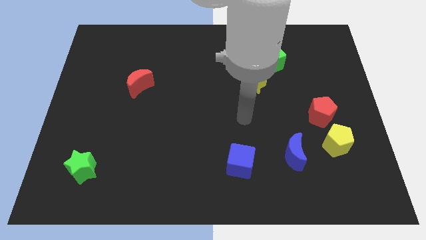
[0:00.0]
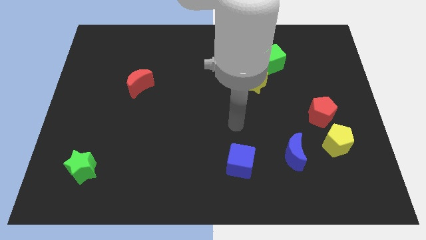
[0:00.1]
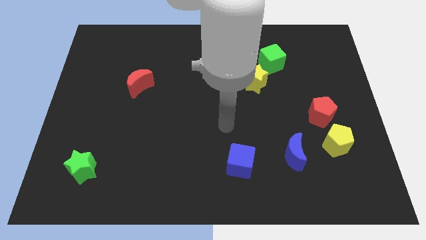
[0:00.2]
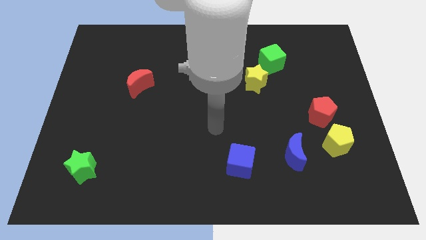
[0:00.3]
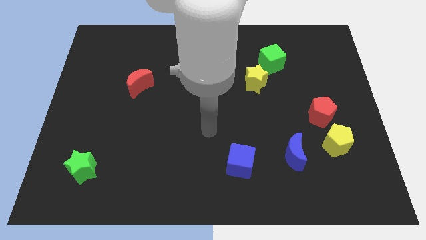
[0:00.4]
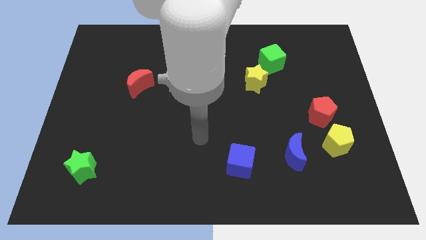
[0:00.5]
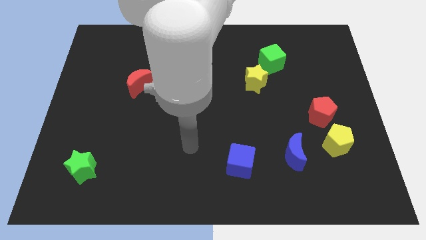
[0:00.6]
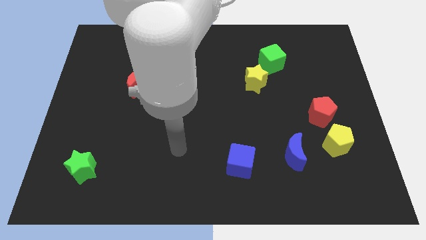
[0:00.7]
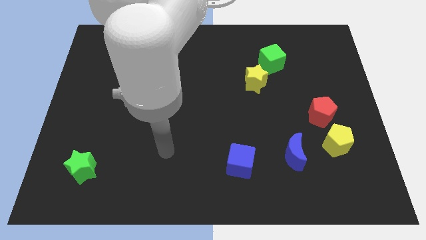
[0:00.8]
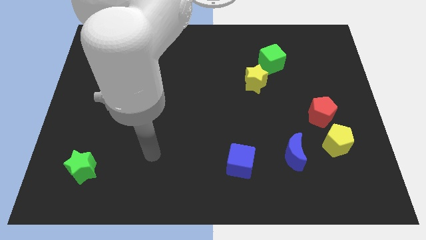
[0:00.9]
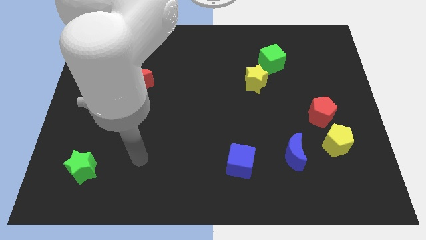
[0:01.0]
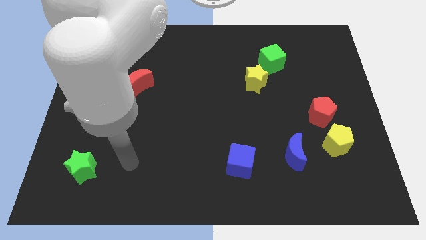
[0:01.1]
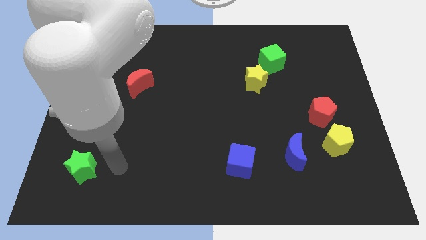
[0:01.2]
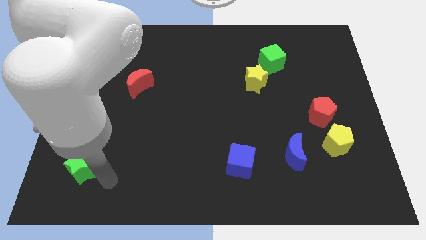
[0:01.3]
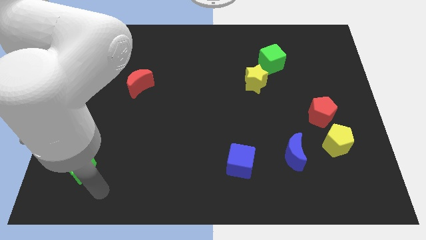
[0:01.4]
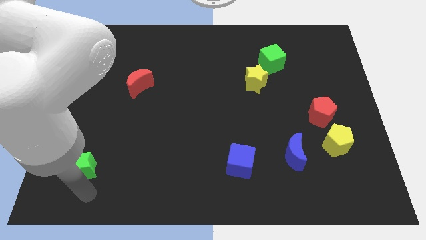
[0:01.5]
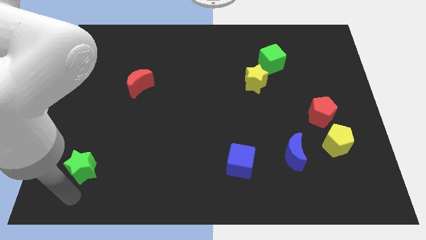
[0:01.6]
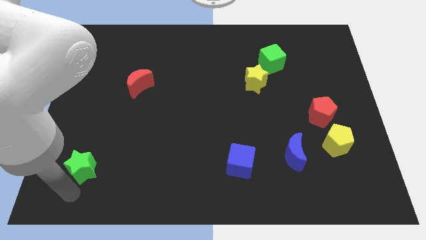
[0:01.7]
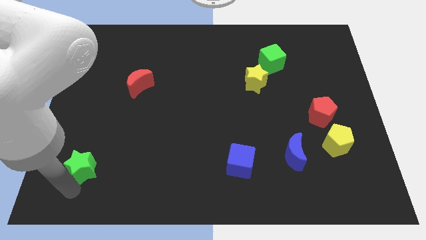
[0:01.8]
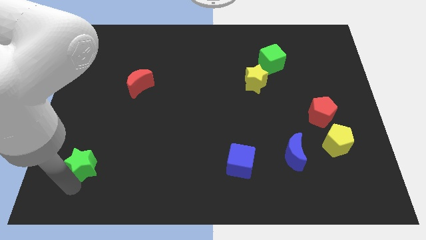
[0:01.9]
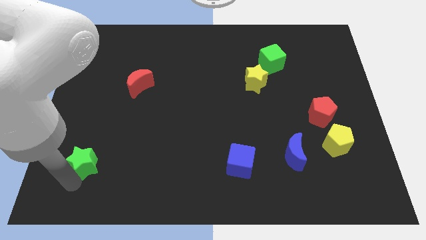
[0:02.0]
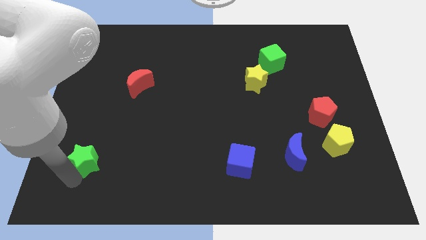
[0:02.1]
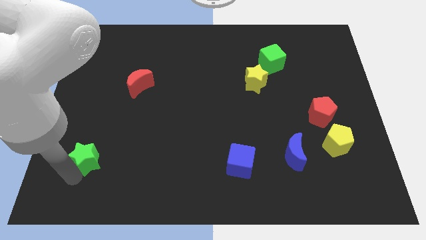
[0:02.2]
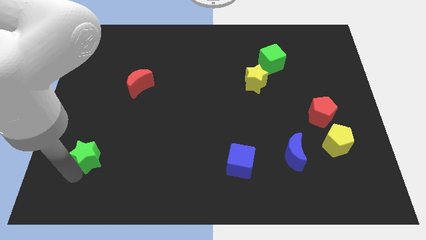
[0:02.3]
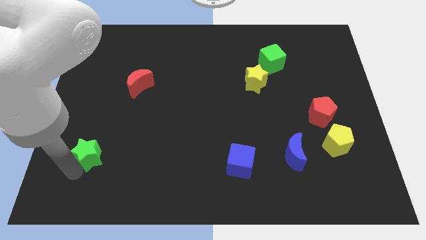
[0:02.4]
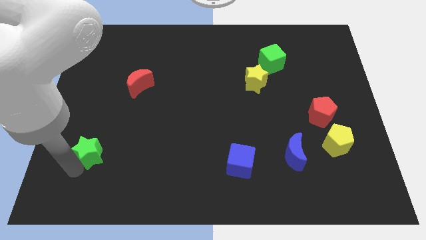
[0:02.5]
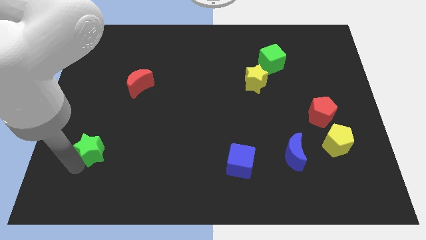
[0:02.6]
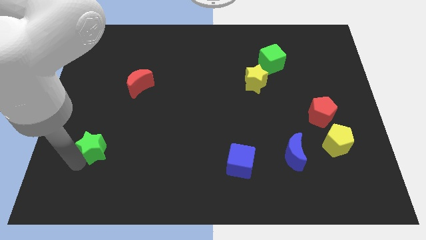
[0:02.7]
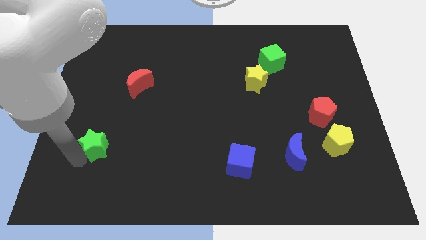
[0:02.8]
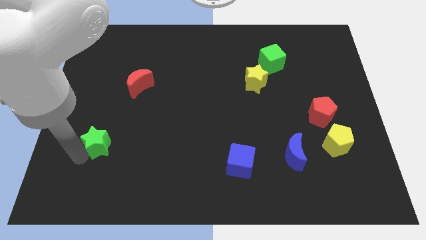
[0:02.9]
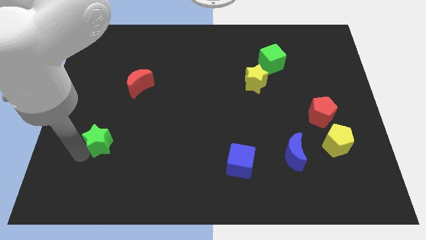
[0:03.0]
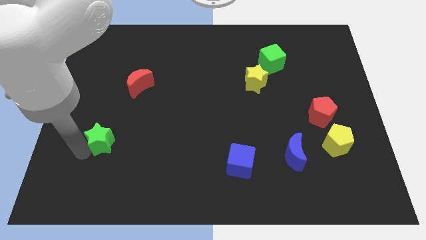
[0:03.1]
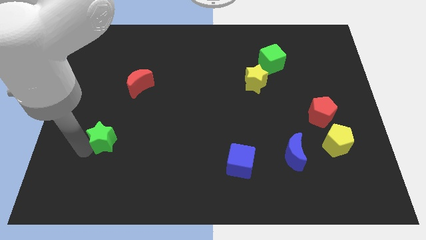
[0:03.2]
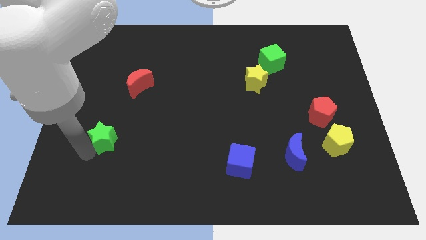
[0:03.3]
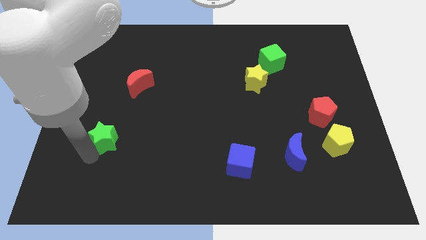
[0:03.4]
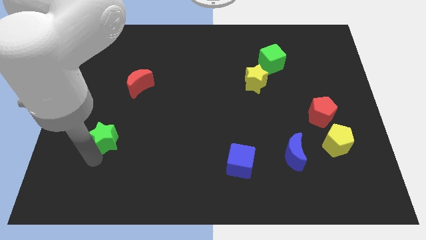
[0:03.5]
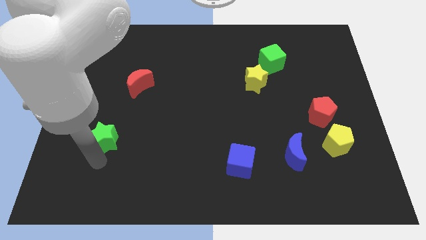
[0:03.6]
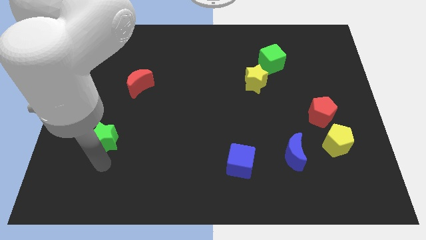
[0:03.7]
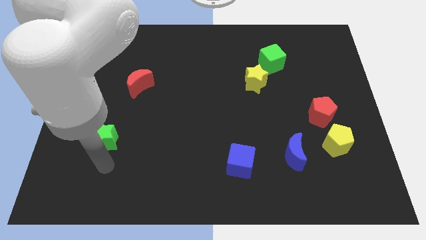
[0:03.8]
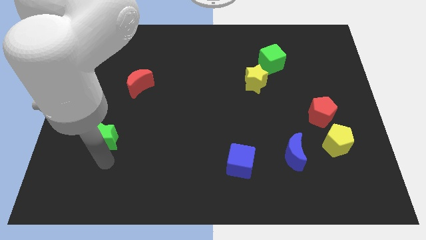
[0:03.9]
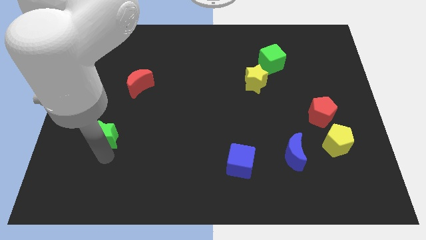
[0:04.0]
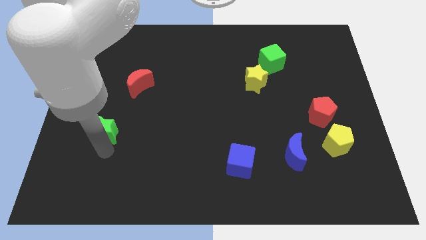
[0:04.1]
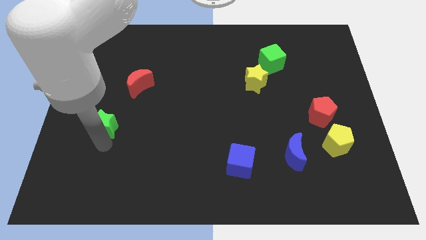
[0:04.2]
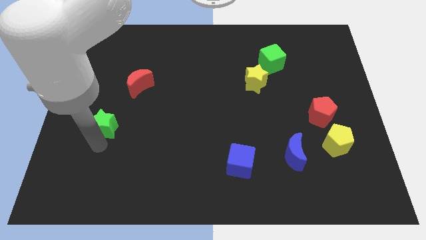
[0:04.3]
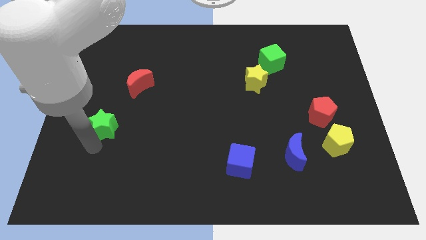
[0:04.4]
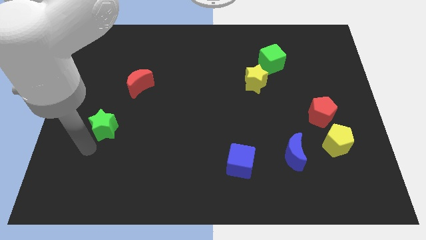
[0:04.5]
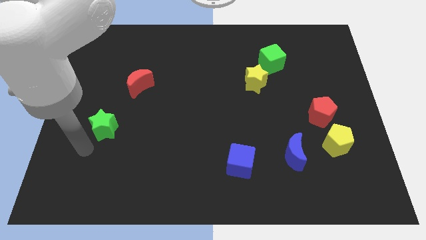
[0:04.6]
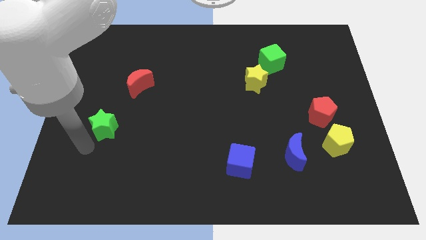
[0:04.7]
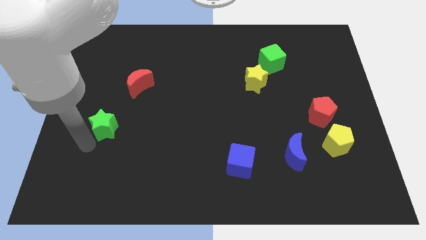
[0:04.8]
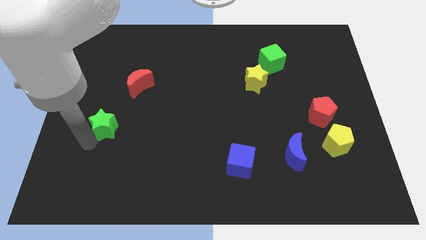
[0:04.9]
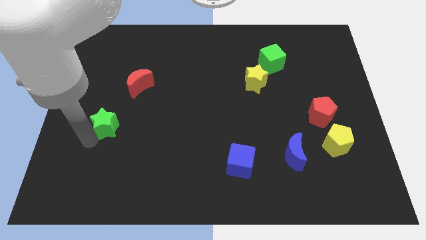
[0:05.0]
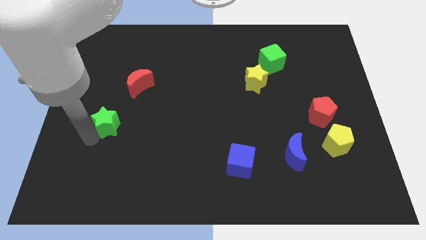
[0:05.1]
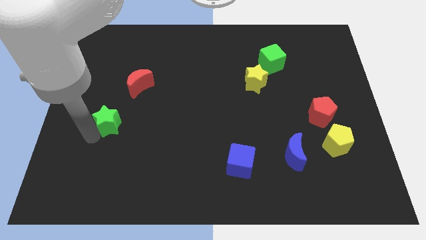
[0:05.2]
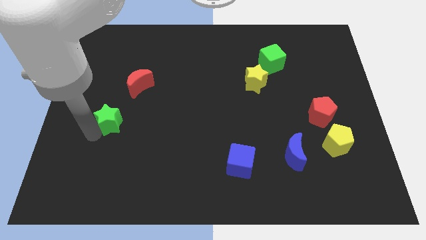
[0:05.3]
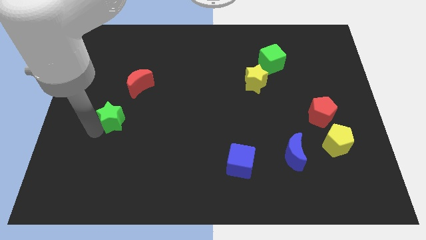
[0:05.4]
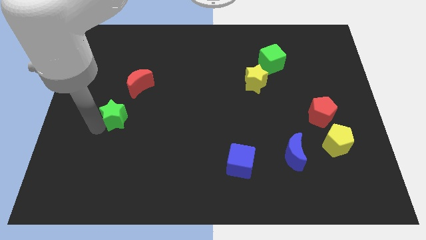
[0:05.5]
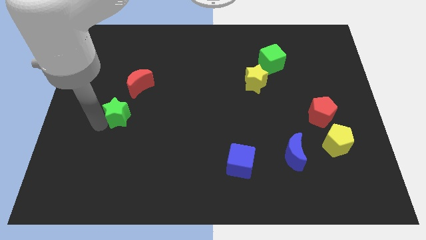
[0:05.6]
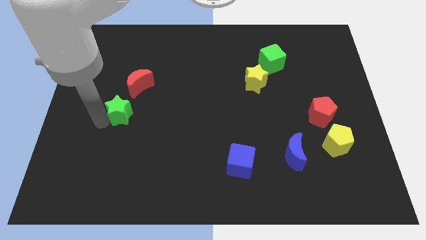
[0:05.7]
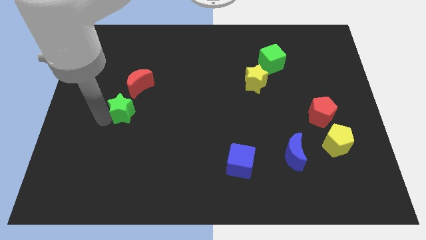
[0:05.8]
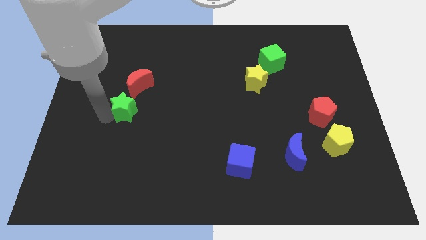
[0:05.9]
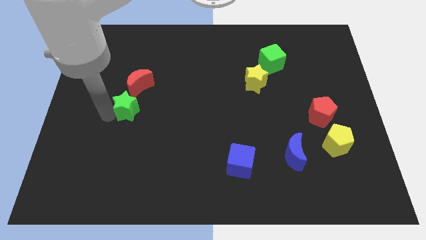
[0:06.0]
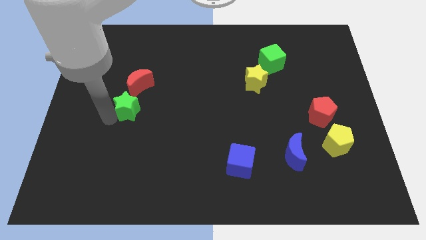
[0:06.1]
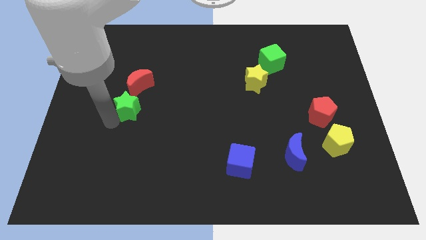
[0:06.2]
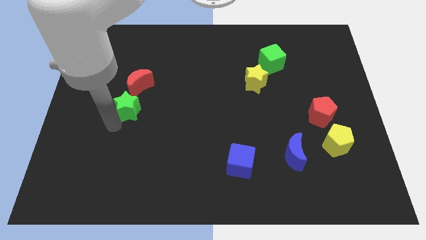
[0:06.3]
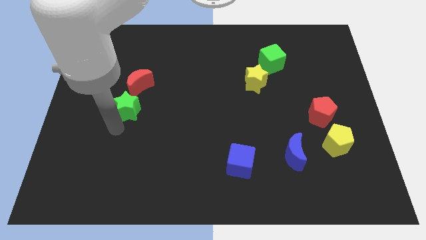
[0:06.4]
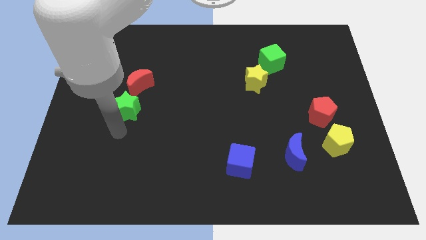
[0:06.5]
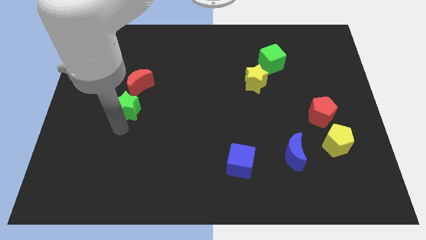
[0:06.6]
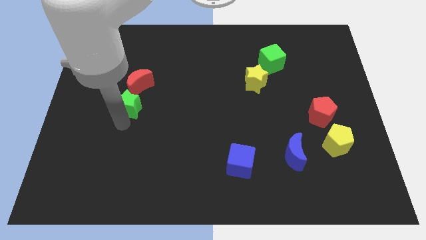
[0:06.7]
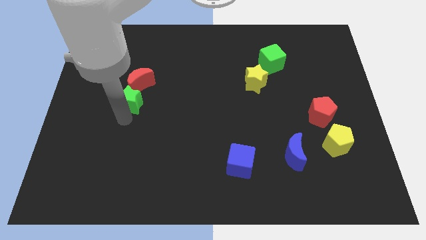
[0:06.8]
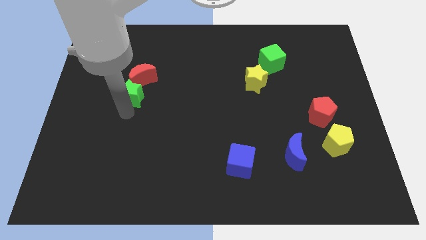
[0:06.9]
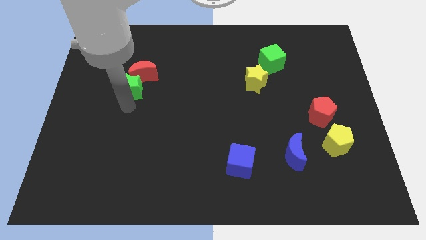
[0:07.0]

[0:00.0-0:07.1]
put the green star to the red moon

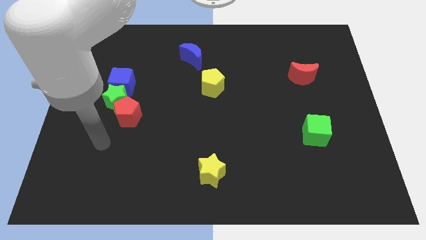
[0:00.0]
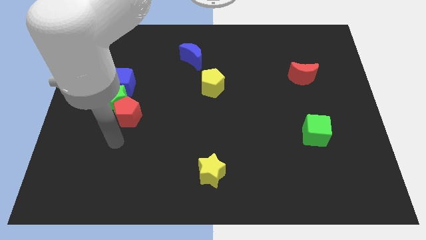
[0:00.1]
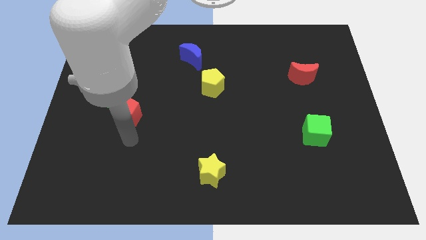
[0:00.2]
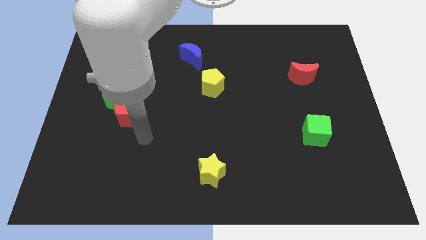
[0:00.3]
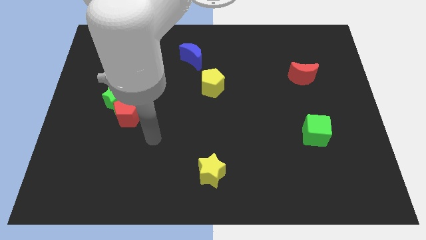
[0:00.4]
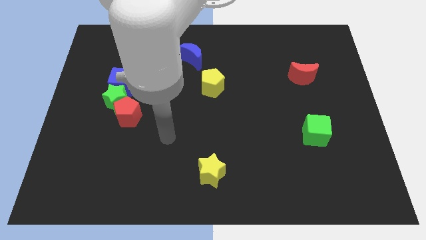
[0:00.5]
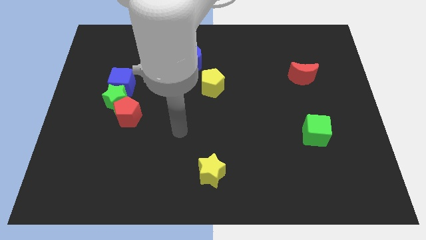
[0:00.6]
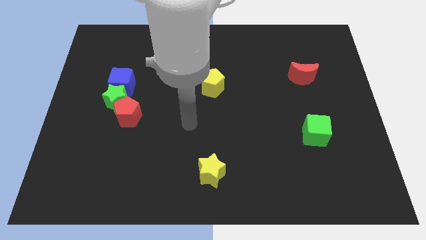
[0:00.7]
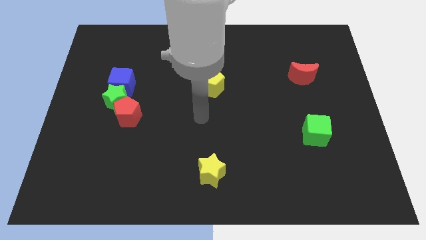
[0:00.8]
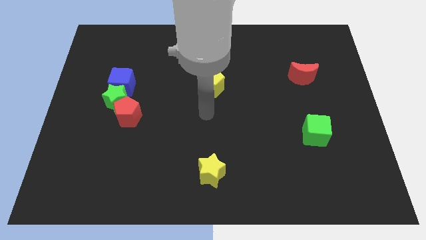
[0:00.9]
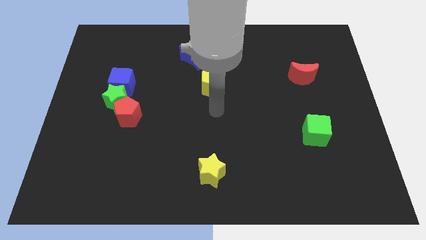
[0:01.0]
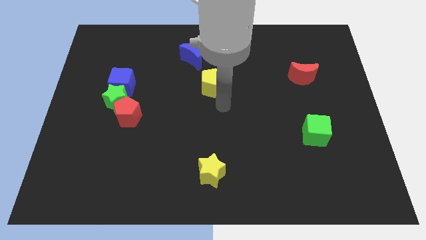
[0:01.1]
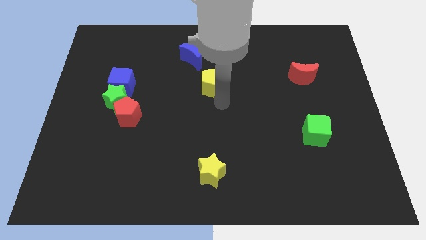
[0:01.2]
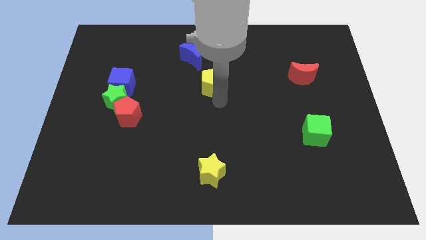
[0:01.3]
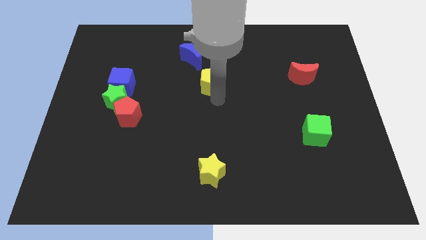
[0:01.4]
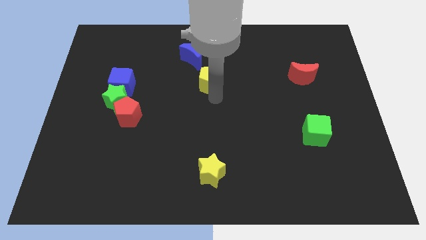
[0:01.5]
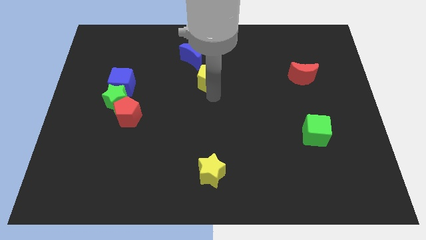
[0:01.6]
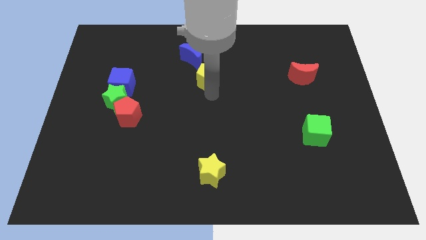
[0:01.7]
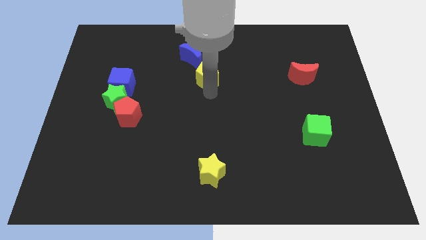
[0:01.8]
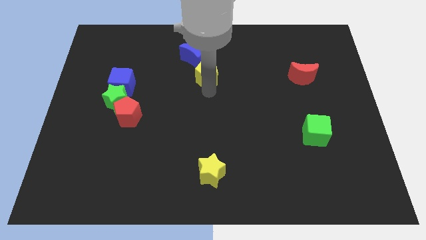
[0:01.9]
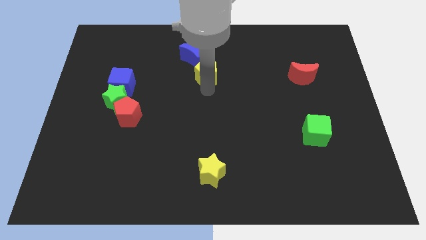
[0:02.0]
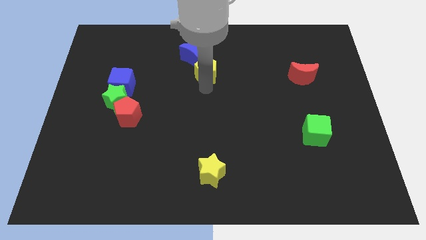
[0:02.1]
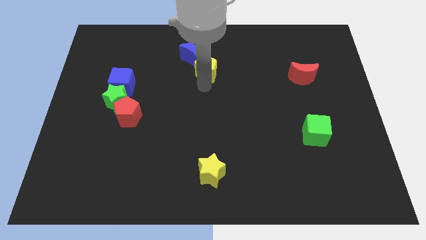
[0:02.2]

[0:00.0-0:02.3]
put the yellow pentagon to the blue moon
